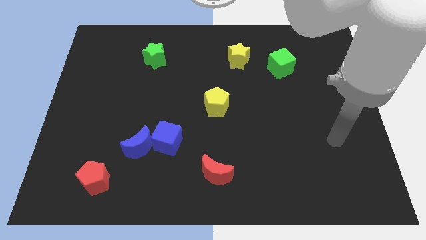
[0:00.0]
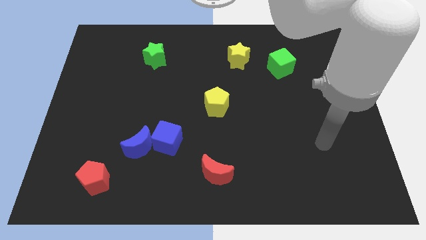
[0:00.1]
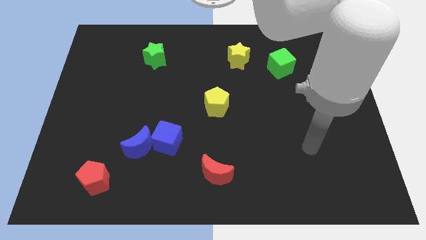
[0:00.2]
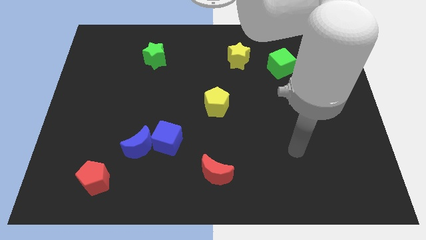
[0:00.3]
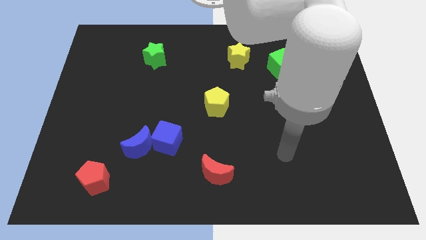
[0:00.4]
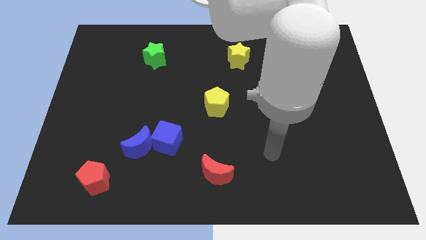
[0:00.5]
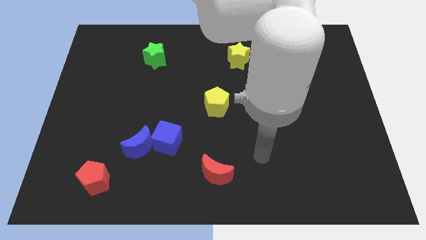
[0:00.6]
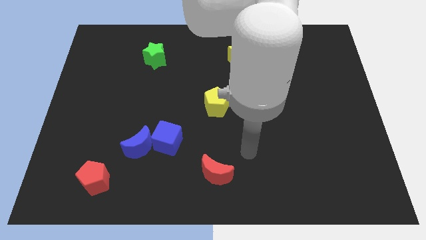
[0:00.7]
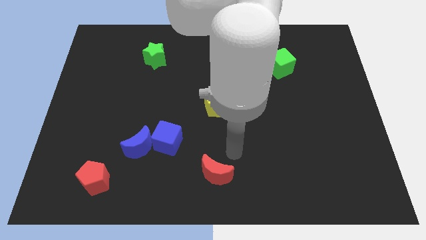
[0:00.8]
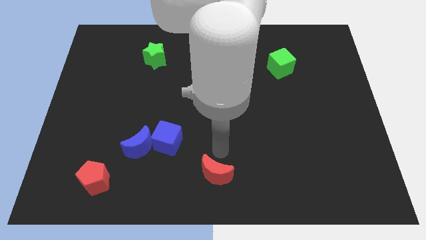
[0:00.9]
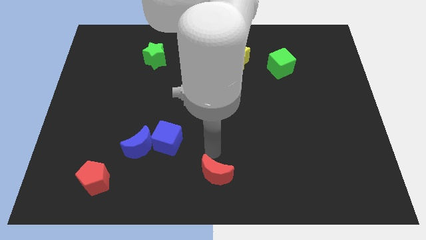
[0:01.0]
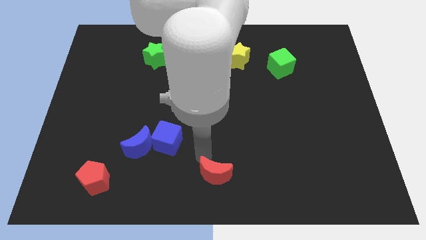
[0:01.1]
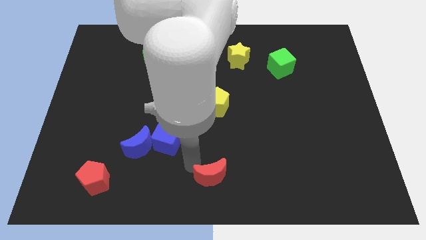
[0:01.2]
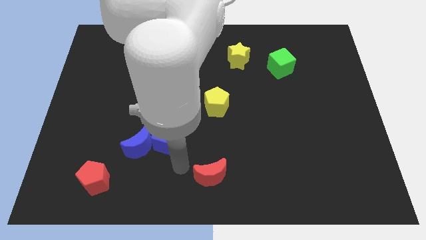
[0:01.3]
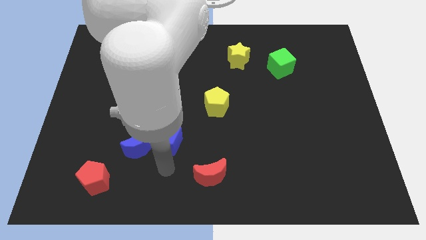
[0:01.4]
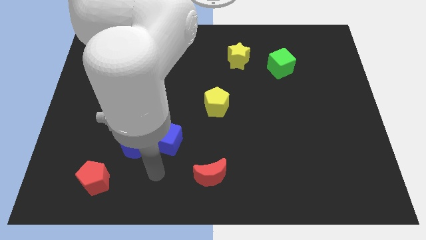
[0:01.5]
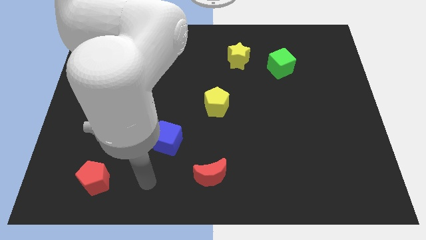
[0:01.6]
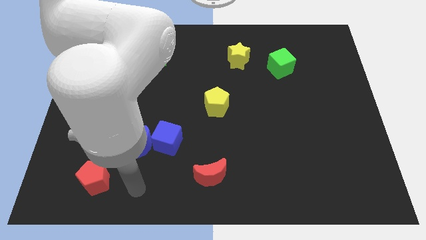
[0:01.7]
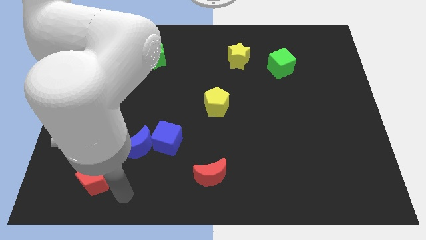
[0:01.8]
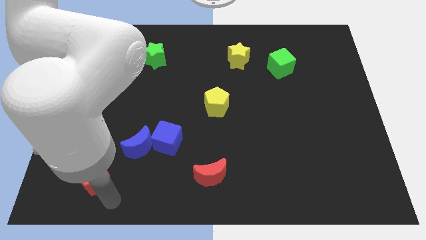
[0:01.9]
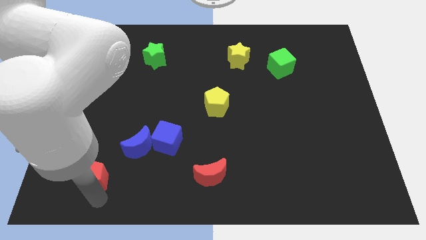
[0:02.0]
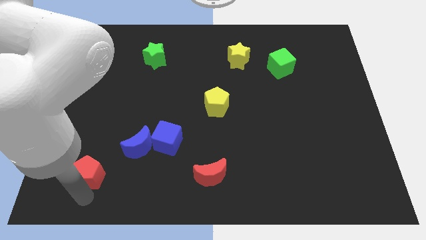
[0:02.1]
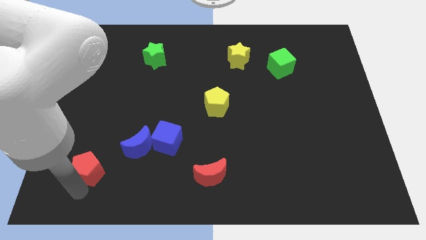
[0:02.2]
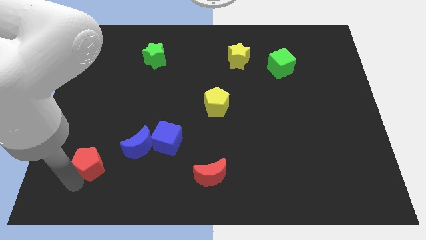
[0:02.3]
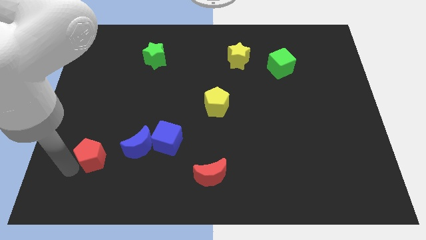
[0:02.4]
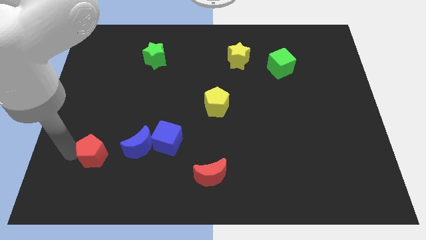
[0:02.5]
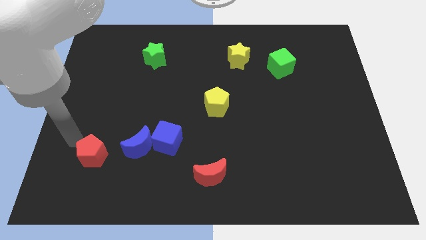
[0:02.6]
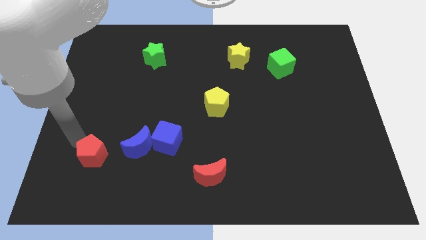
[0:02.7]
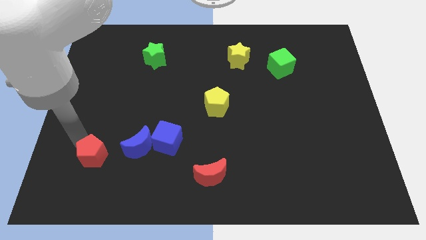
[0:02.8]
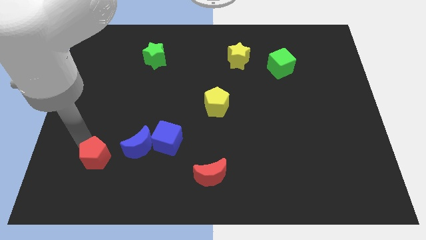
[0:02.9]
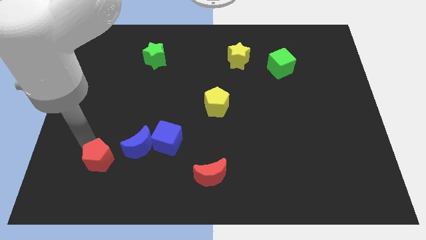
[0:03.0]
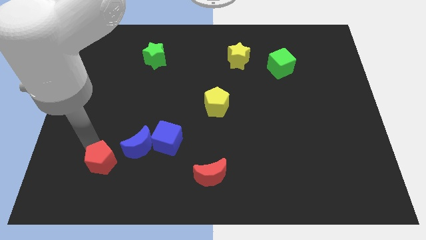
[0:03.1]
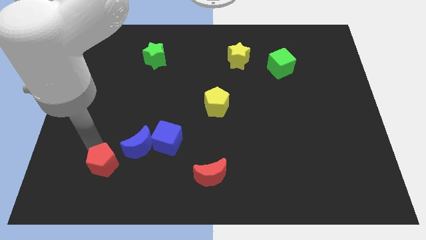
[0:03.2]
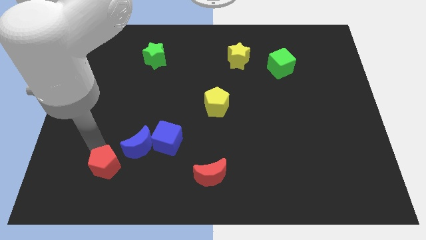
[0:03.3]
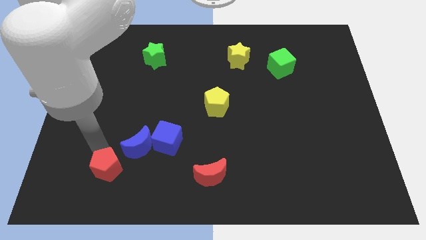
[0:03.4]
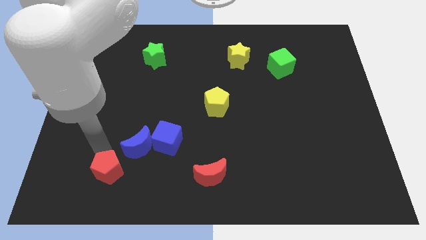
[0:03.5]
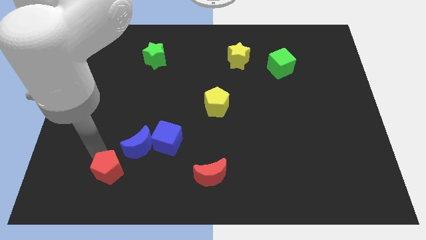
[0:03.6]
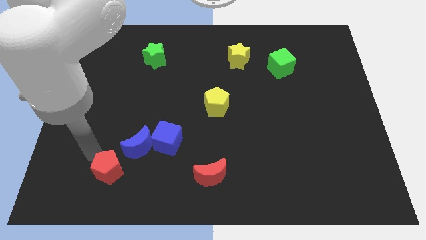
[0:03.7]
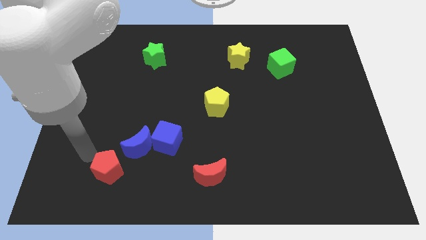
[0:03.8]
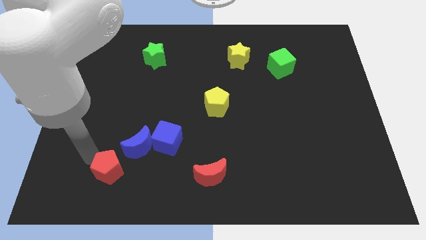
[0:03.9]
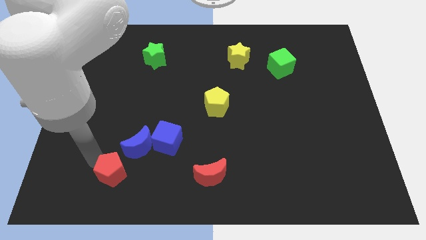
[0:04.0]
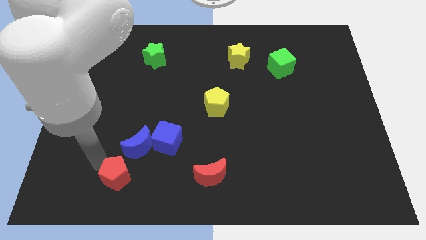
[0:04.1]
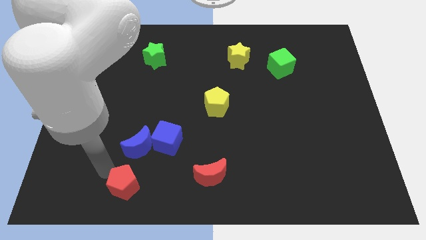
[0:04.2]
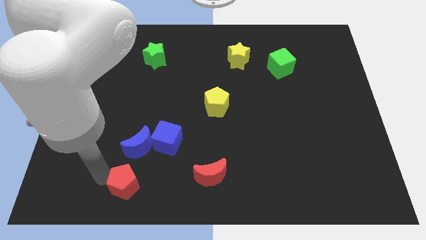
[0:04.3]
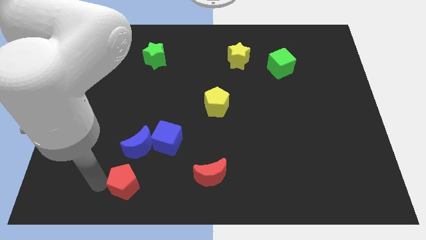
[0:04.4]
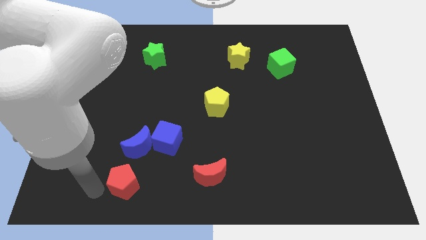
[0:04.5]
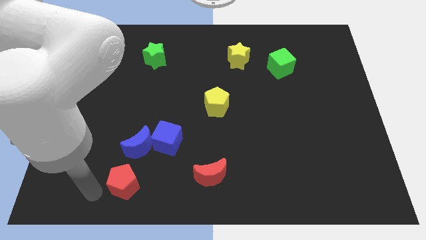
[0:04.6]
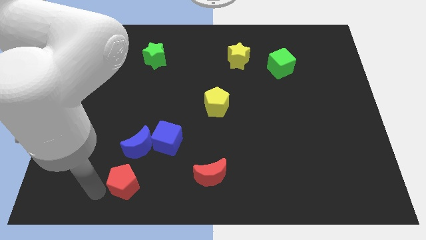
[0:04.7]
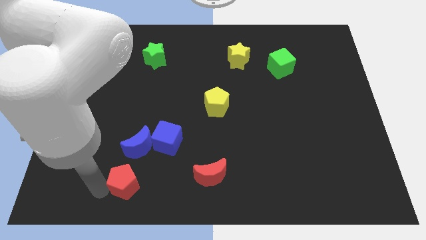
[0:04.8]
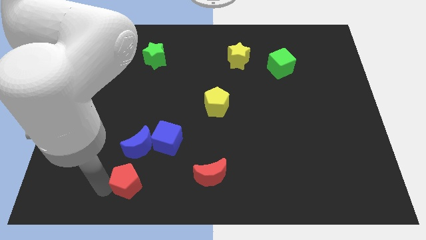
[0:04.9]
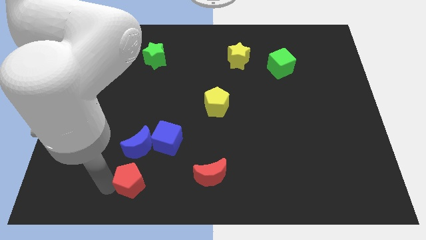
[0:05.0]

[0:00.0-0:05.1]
push the red pentagon to the left of the red moon

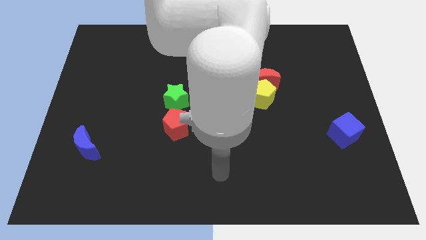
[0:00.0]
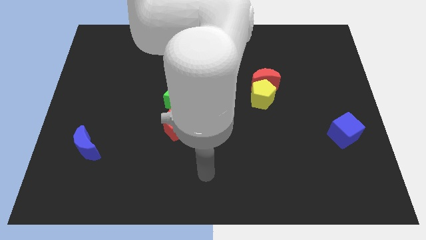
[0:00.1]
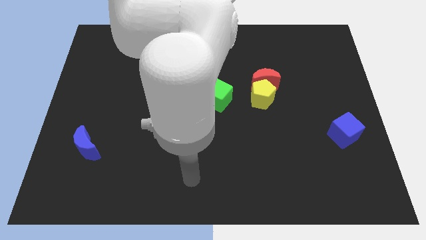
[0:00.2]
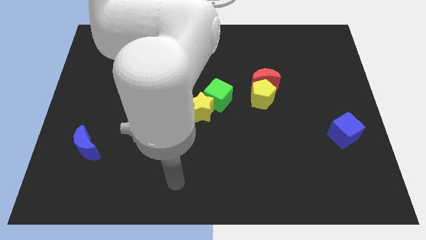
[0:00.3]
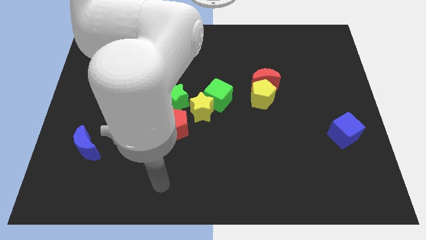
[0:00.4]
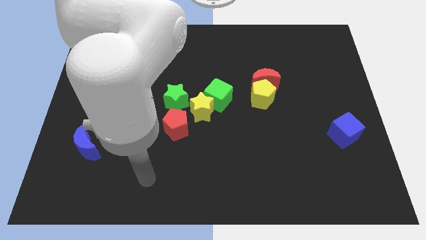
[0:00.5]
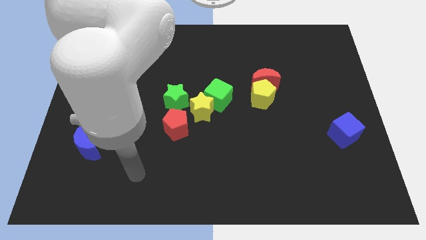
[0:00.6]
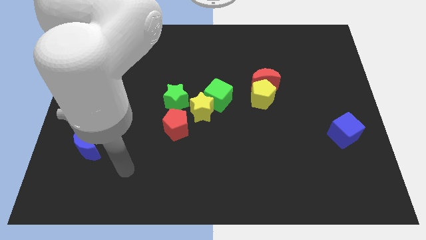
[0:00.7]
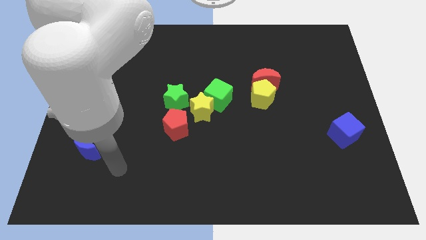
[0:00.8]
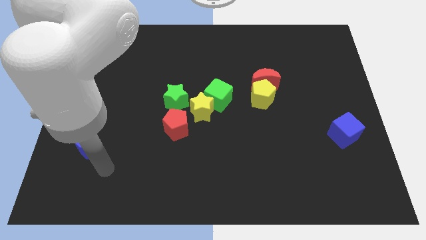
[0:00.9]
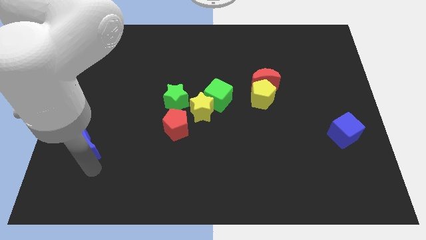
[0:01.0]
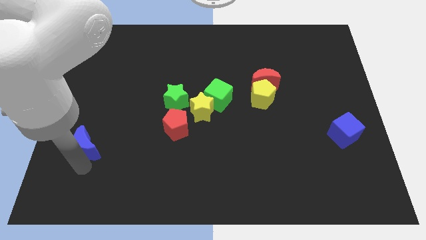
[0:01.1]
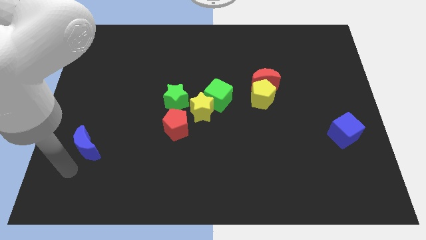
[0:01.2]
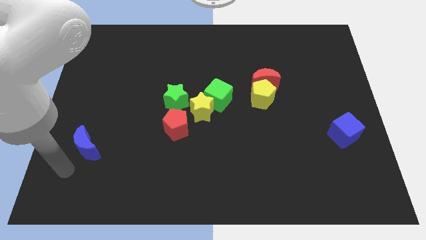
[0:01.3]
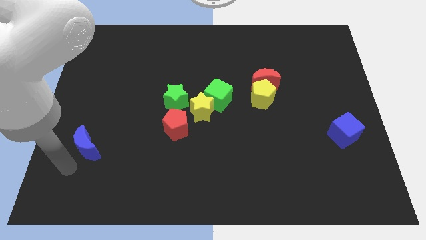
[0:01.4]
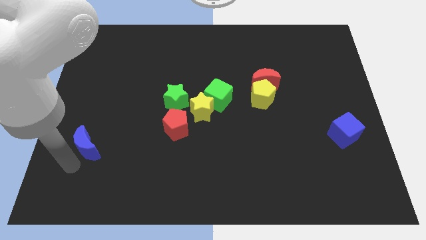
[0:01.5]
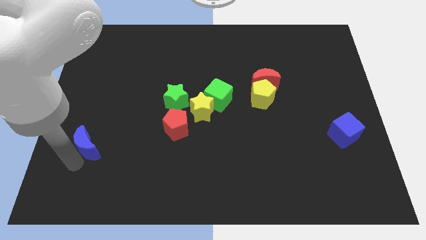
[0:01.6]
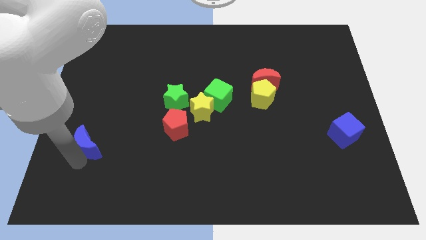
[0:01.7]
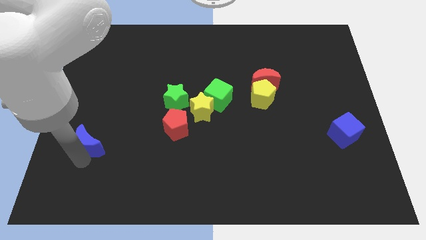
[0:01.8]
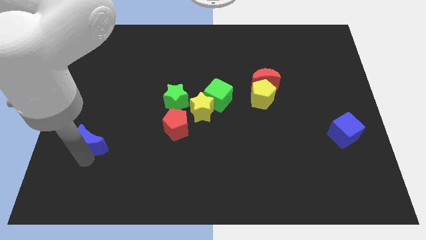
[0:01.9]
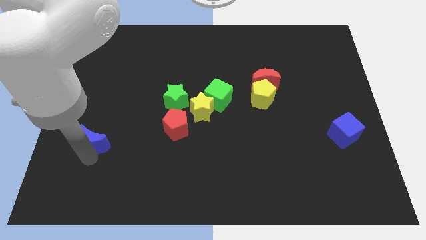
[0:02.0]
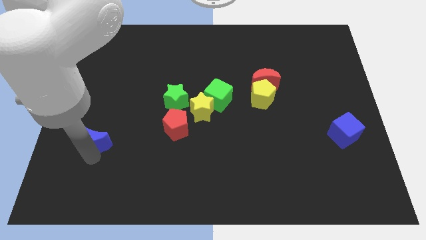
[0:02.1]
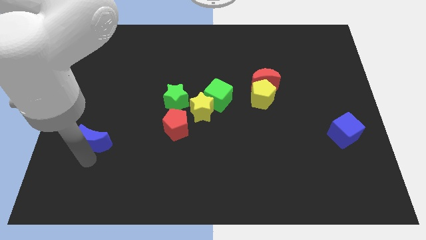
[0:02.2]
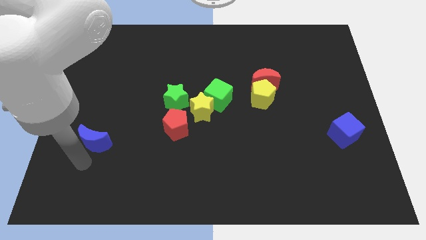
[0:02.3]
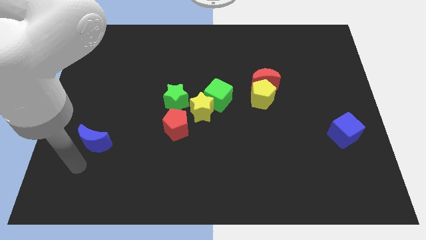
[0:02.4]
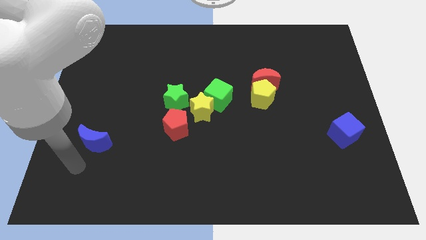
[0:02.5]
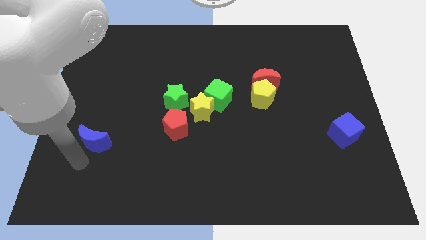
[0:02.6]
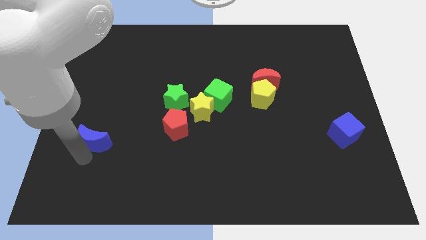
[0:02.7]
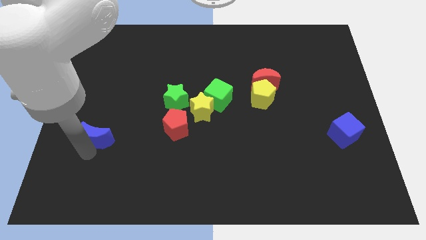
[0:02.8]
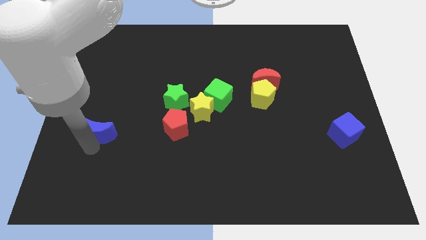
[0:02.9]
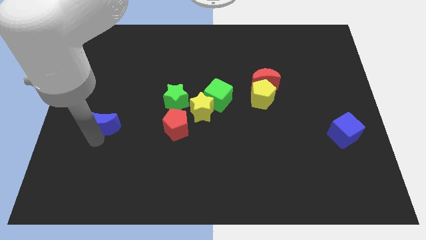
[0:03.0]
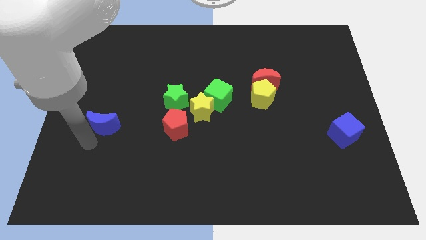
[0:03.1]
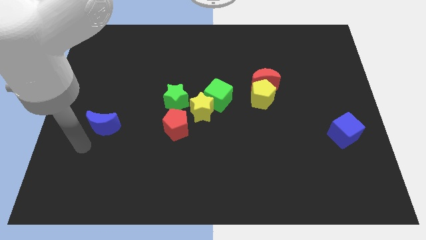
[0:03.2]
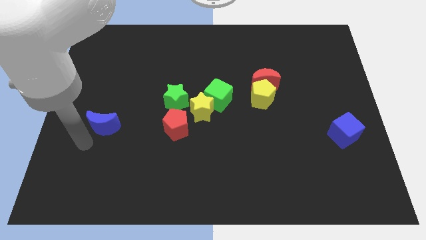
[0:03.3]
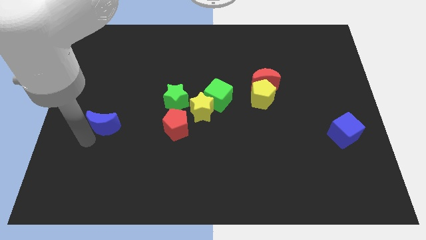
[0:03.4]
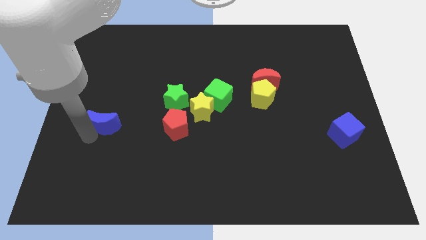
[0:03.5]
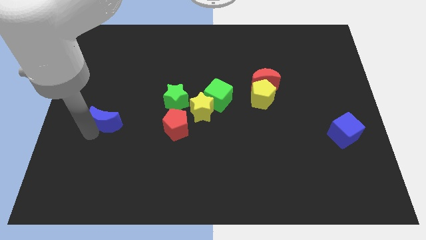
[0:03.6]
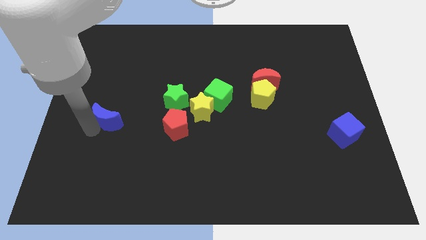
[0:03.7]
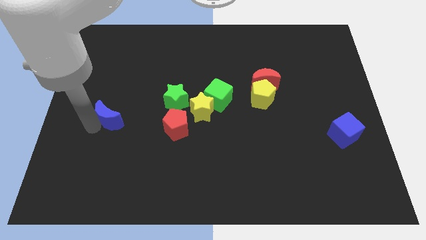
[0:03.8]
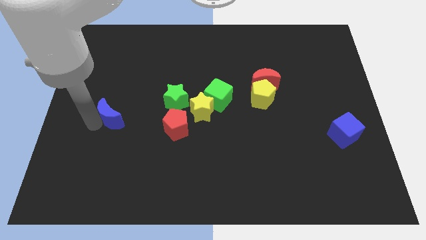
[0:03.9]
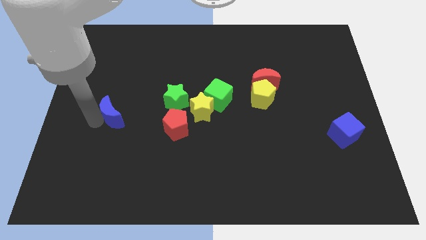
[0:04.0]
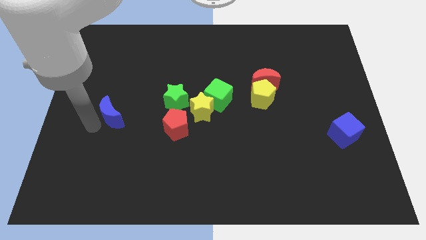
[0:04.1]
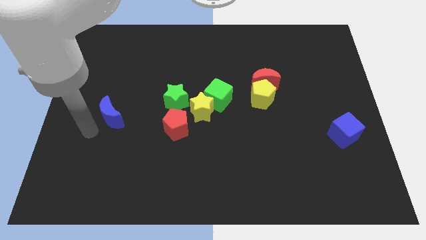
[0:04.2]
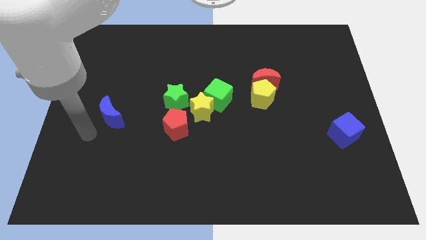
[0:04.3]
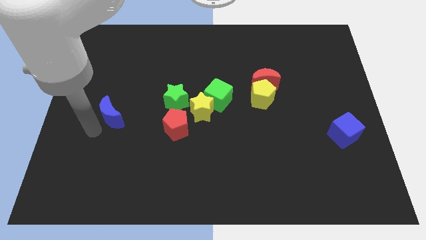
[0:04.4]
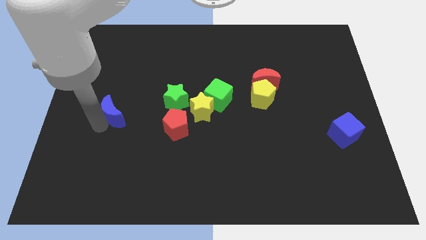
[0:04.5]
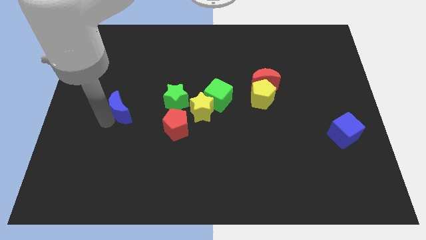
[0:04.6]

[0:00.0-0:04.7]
push the blue moon left of the green star
